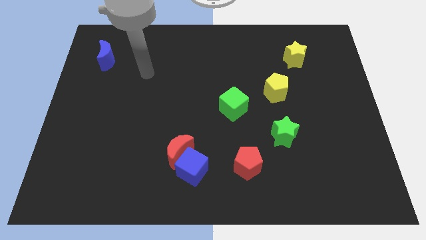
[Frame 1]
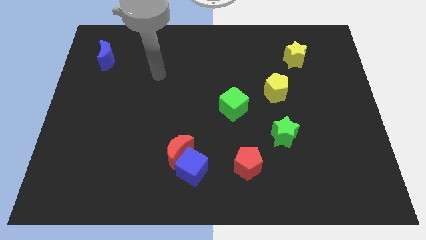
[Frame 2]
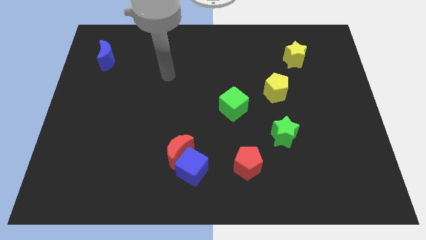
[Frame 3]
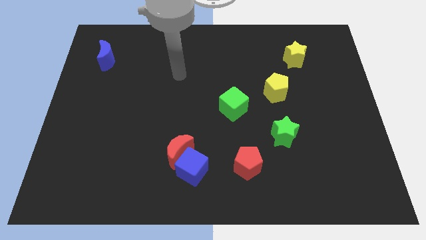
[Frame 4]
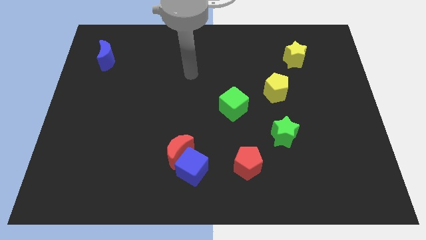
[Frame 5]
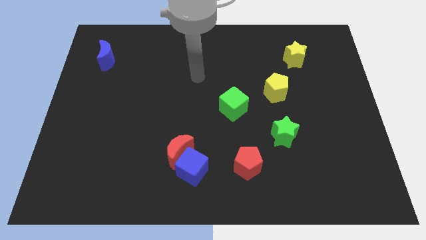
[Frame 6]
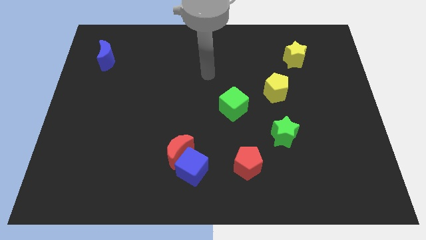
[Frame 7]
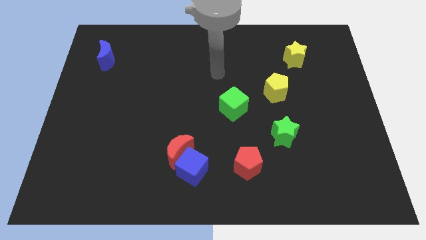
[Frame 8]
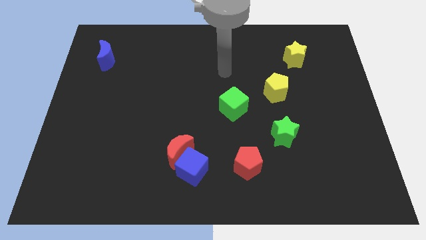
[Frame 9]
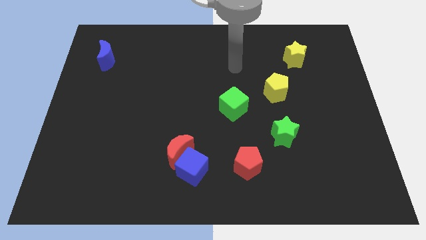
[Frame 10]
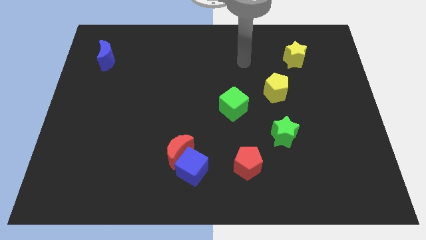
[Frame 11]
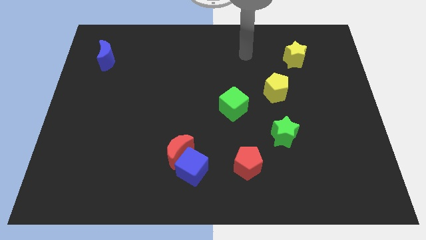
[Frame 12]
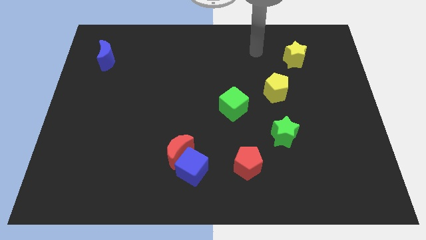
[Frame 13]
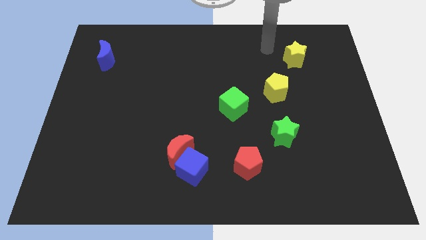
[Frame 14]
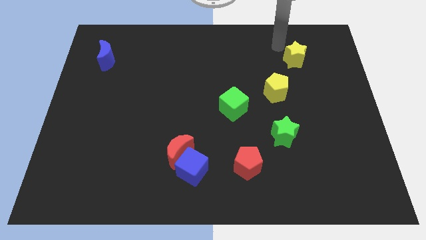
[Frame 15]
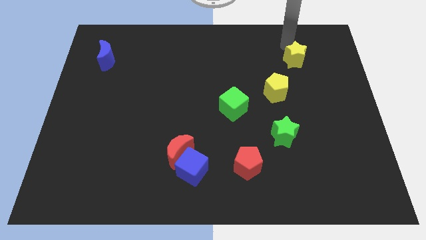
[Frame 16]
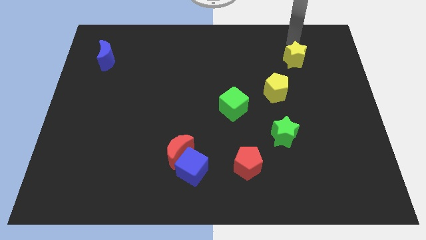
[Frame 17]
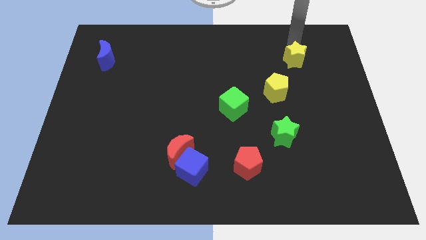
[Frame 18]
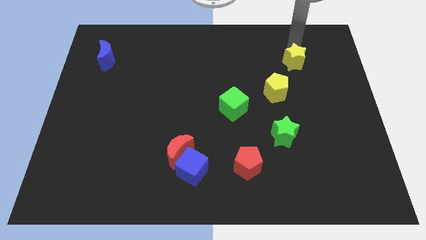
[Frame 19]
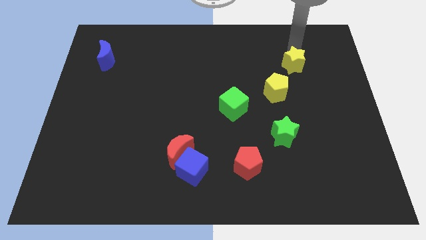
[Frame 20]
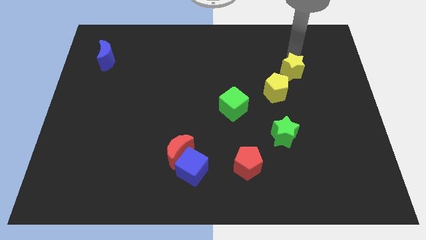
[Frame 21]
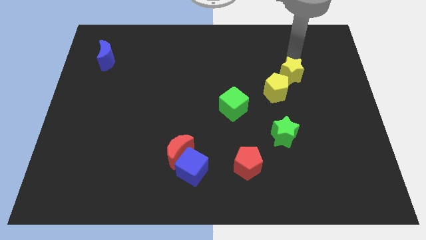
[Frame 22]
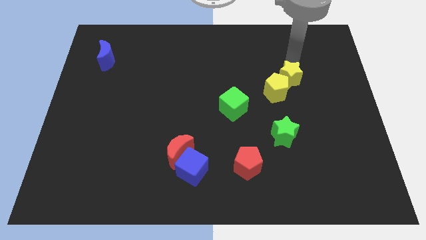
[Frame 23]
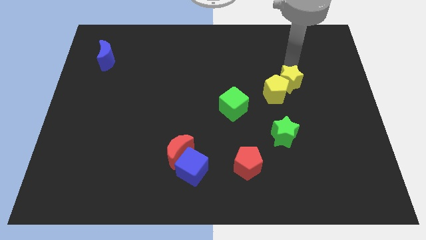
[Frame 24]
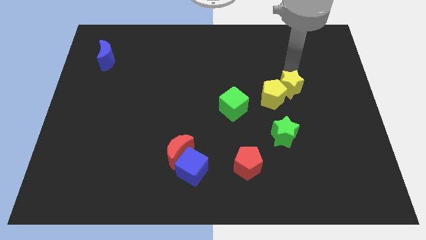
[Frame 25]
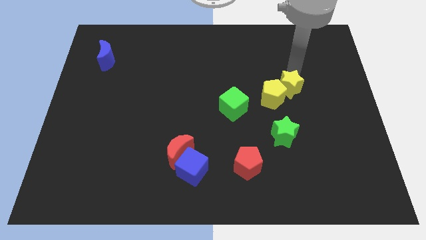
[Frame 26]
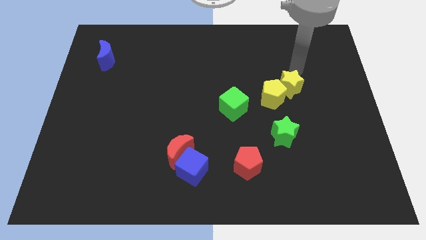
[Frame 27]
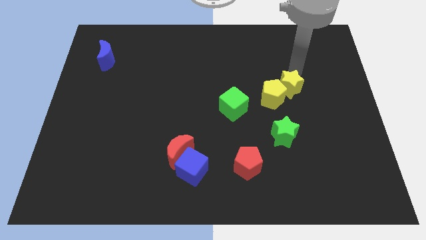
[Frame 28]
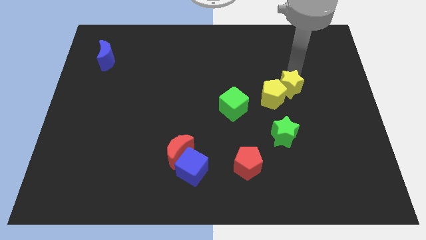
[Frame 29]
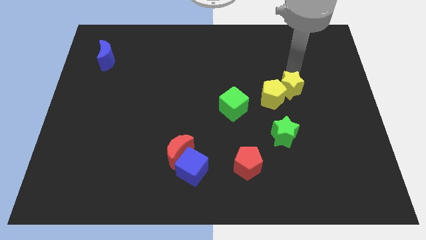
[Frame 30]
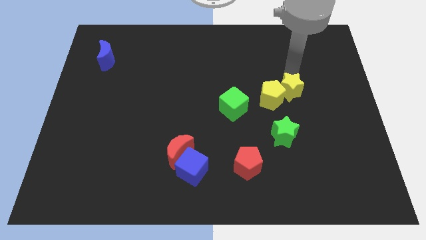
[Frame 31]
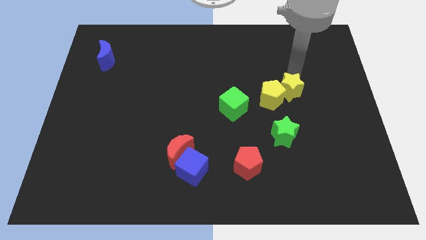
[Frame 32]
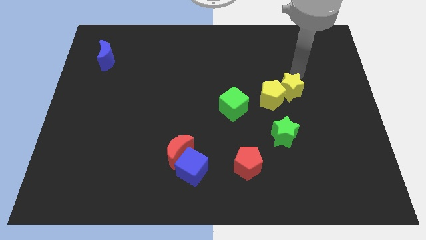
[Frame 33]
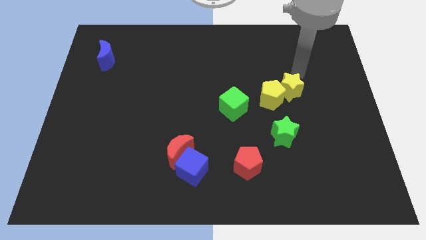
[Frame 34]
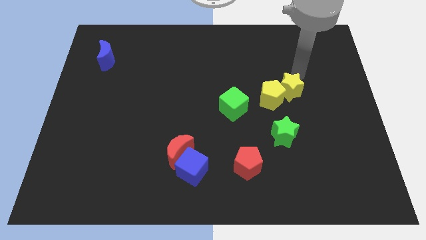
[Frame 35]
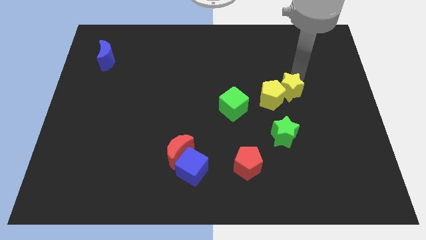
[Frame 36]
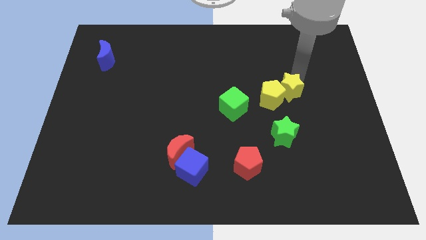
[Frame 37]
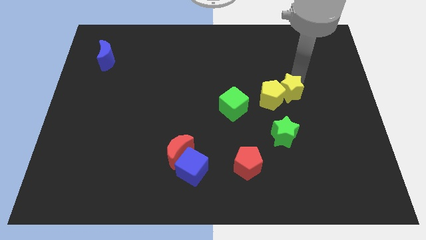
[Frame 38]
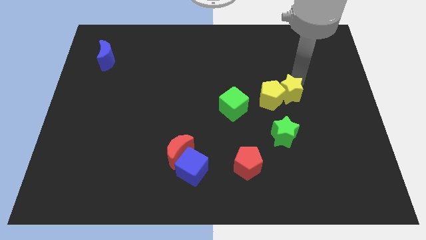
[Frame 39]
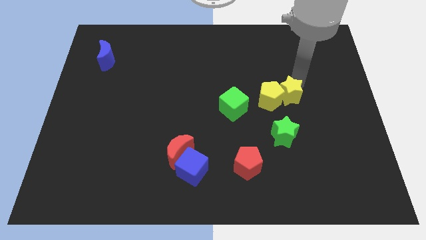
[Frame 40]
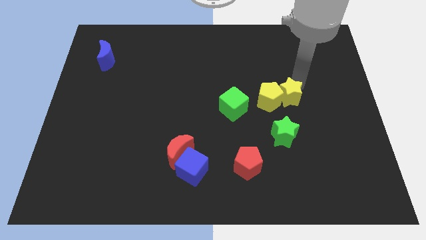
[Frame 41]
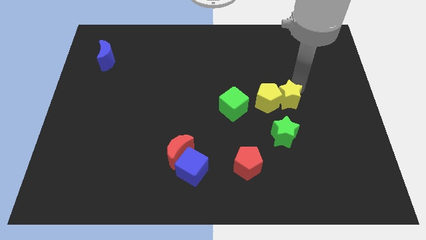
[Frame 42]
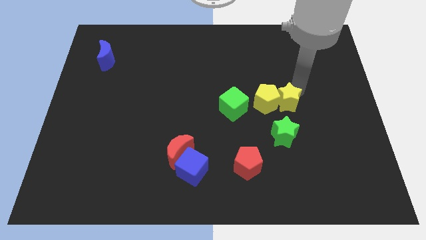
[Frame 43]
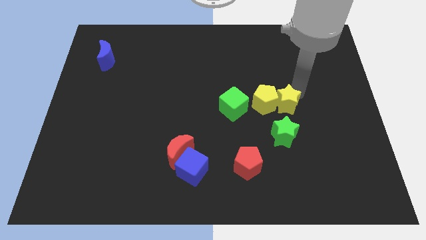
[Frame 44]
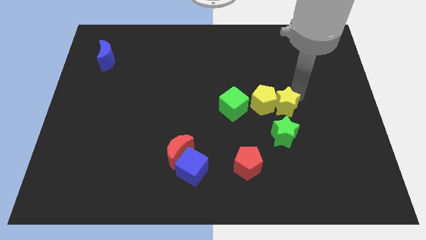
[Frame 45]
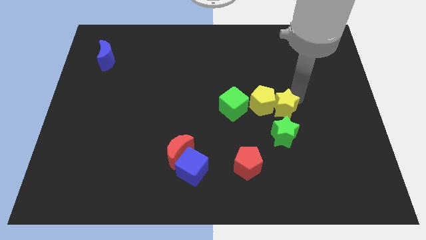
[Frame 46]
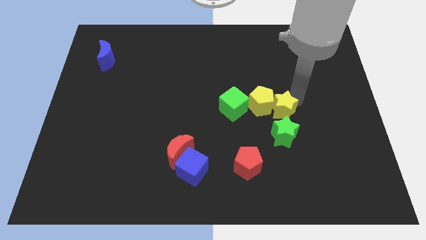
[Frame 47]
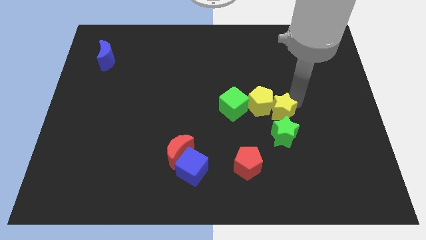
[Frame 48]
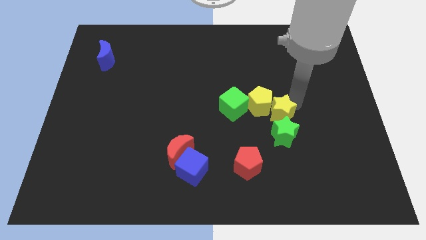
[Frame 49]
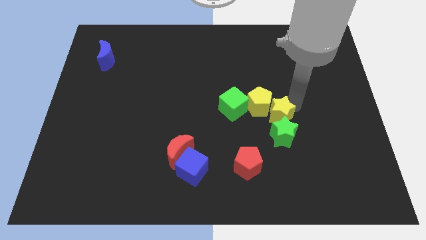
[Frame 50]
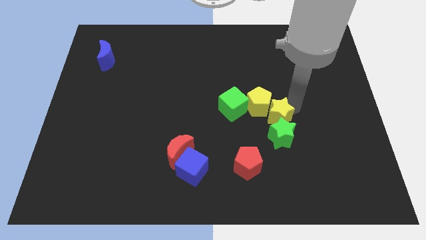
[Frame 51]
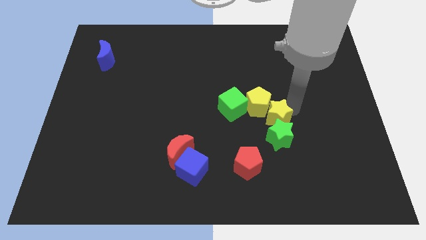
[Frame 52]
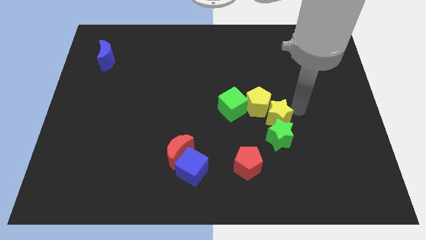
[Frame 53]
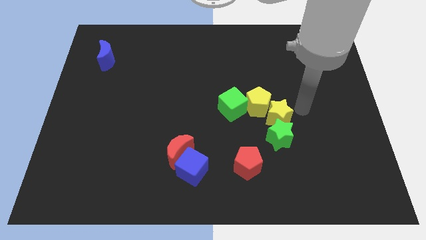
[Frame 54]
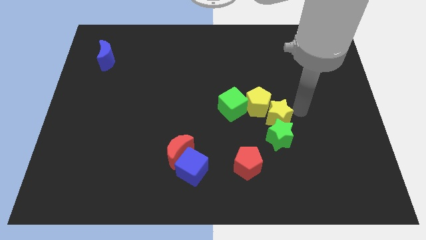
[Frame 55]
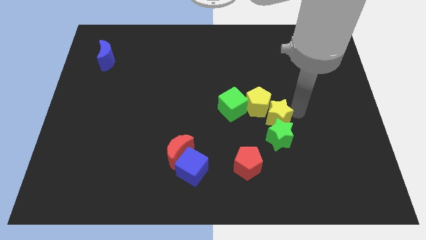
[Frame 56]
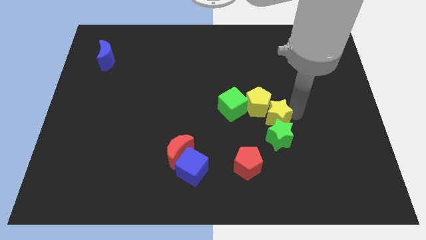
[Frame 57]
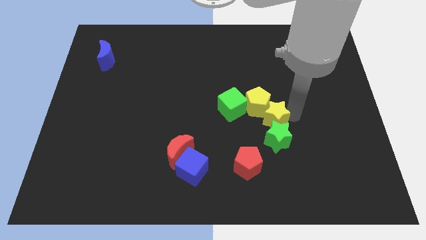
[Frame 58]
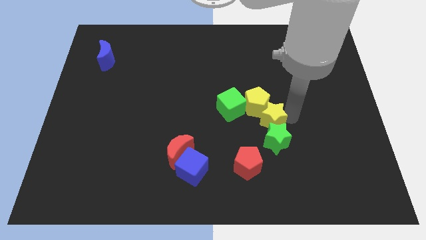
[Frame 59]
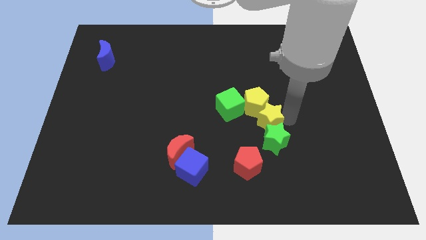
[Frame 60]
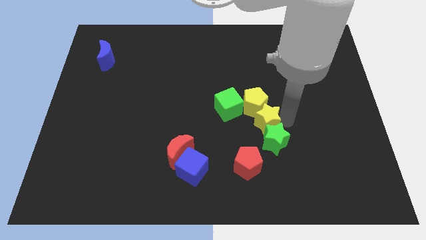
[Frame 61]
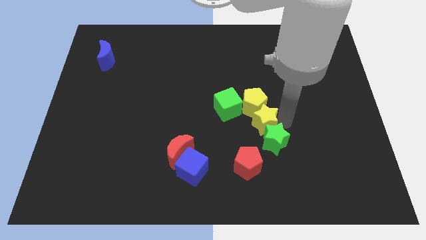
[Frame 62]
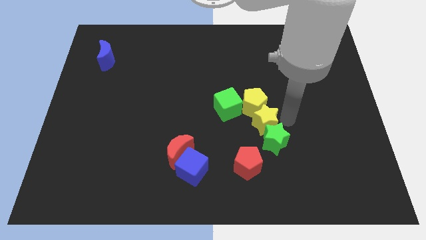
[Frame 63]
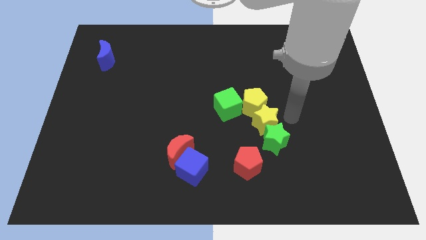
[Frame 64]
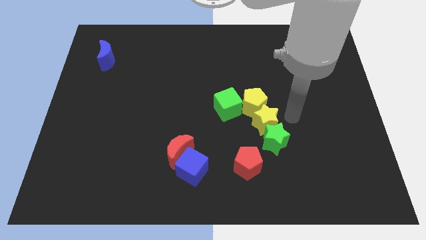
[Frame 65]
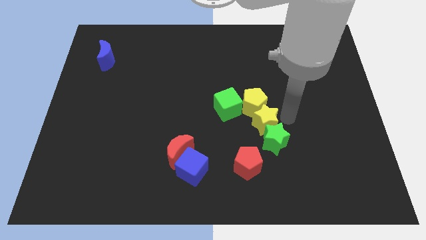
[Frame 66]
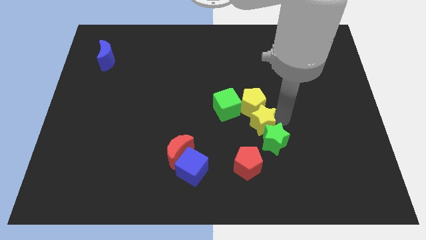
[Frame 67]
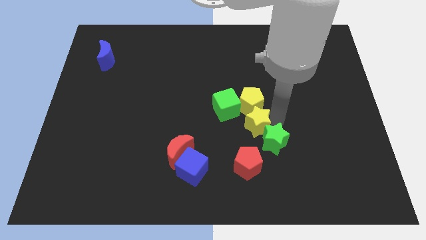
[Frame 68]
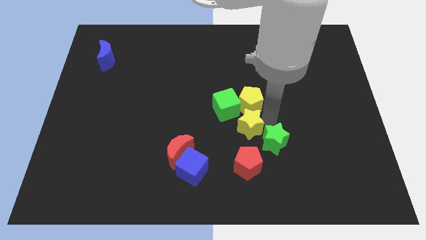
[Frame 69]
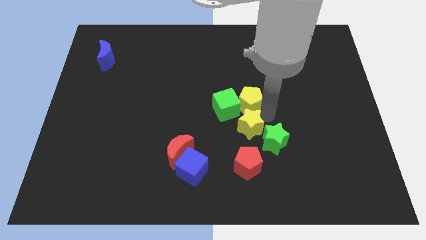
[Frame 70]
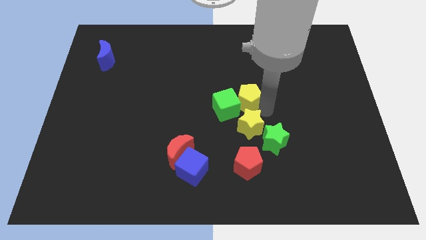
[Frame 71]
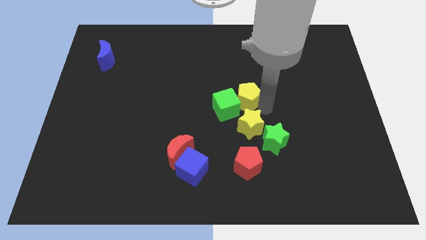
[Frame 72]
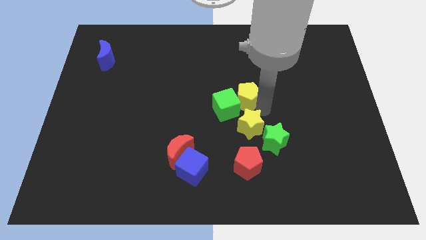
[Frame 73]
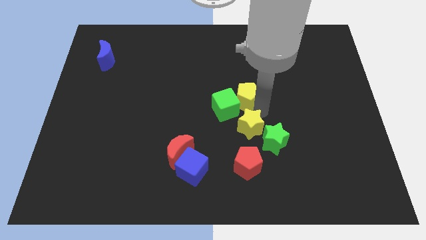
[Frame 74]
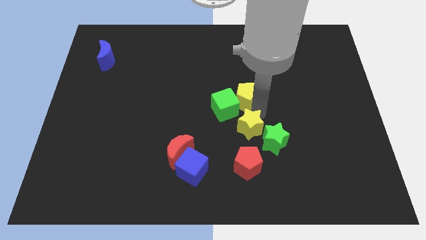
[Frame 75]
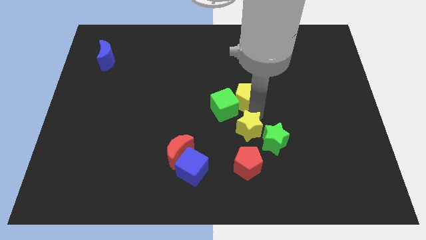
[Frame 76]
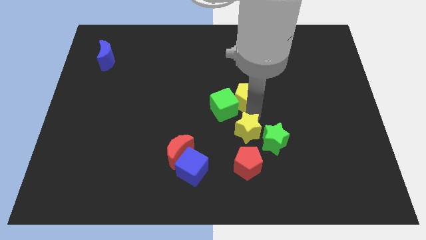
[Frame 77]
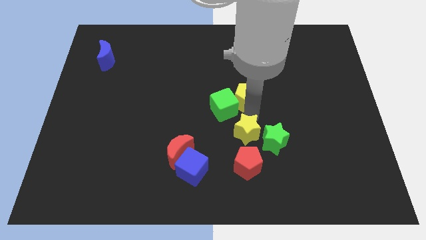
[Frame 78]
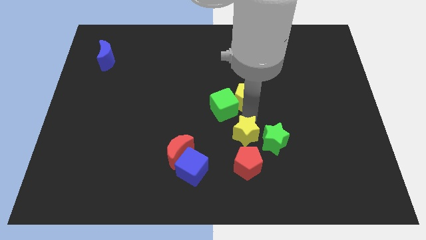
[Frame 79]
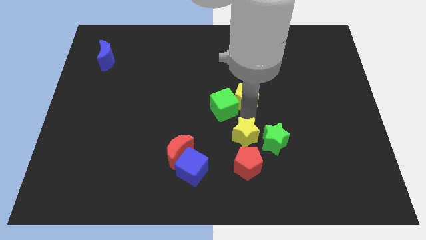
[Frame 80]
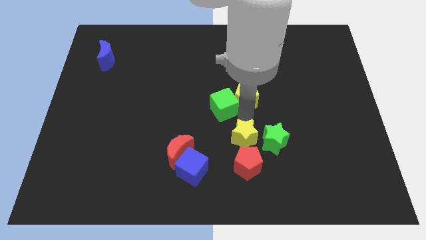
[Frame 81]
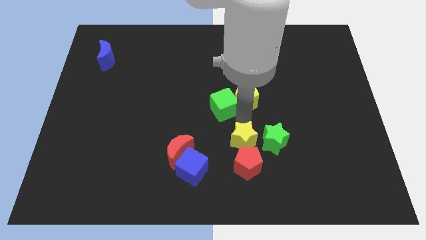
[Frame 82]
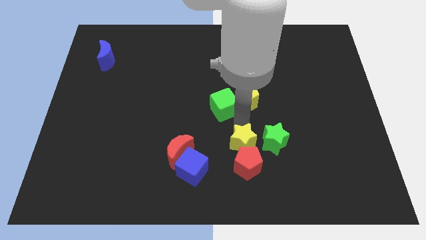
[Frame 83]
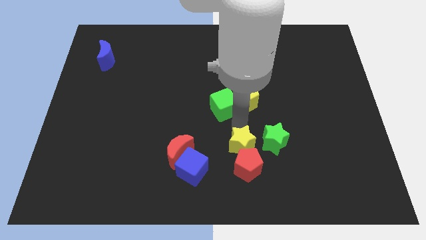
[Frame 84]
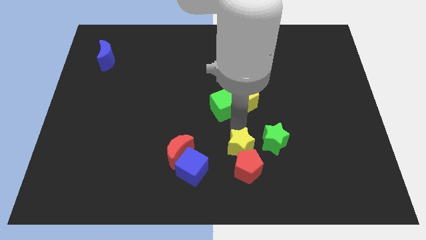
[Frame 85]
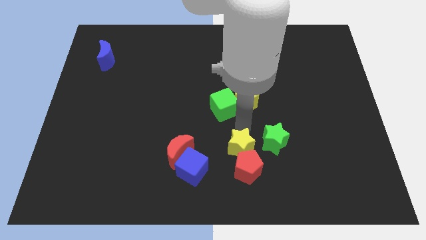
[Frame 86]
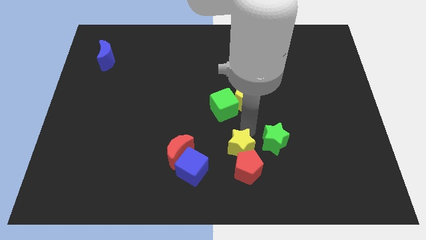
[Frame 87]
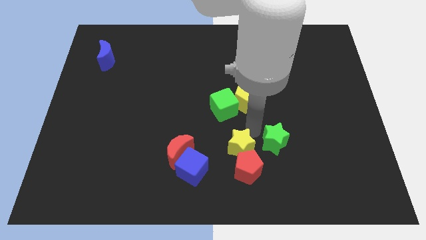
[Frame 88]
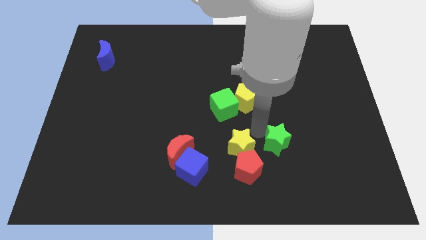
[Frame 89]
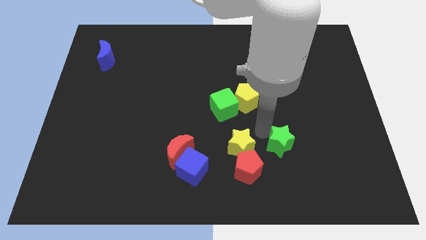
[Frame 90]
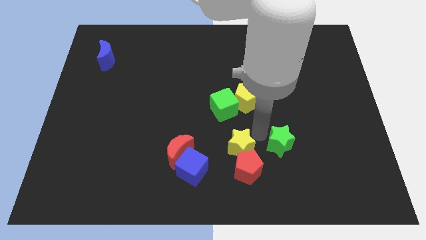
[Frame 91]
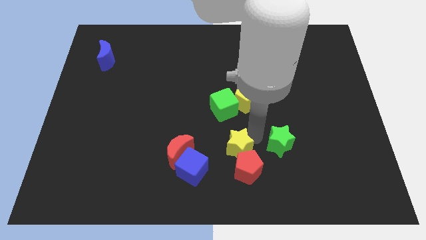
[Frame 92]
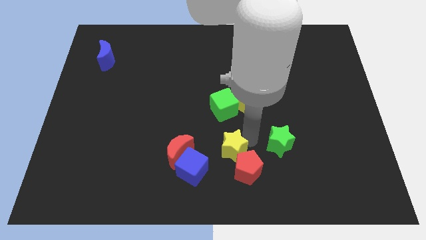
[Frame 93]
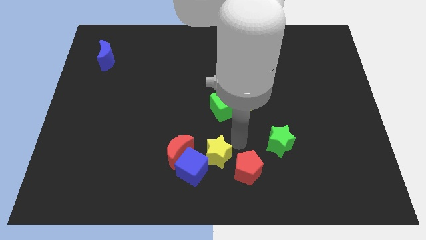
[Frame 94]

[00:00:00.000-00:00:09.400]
put the yellow star to the bottom
